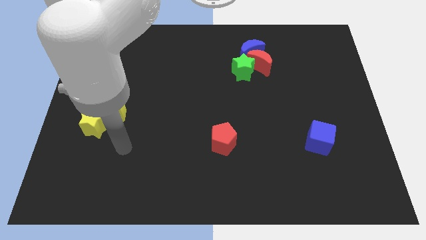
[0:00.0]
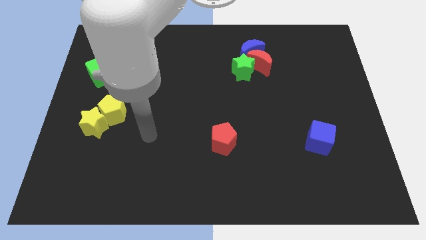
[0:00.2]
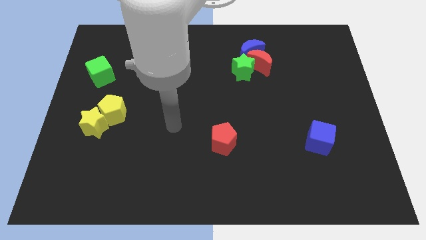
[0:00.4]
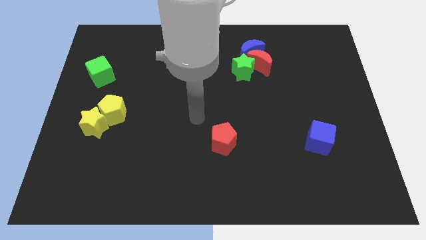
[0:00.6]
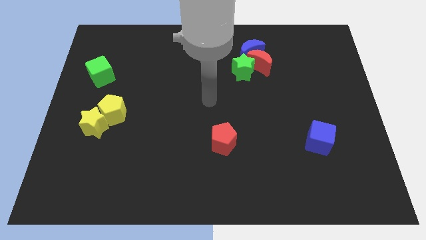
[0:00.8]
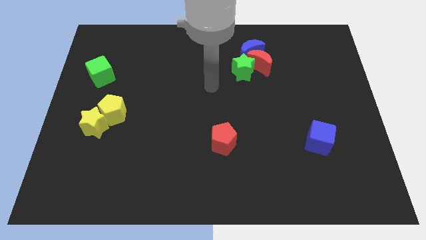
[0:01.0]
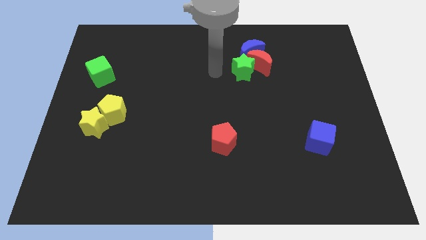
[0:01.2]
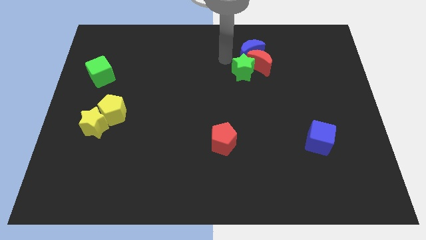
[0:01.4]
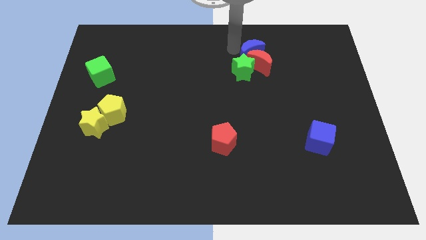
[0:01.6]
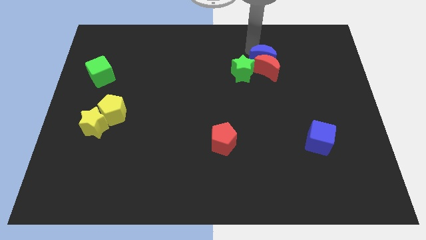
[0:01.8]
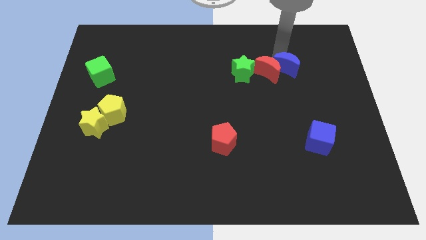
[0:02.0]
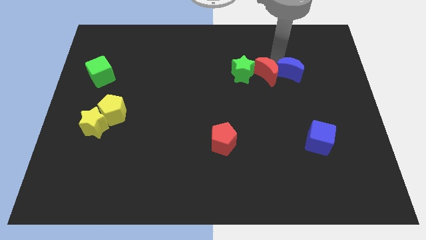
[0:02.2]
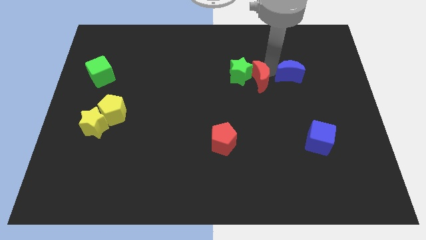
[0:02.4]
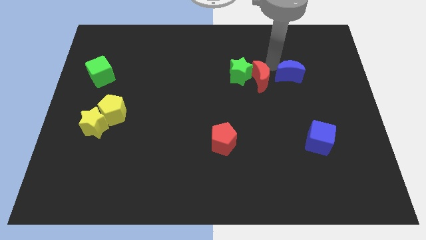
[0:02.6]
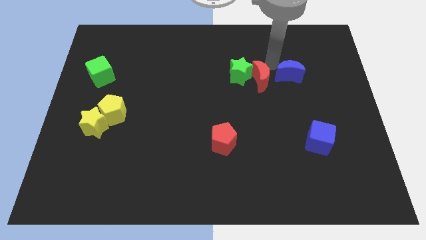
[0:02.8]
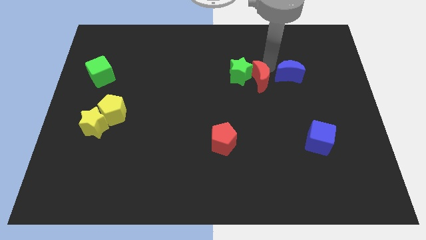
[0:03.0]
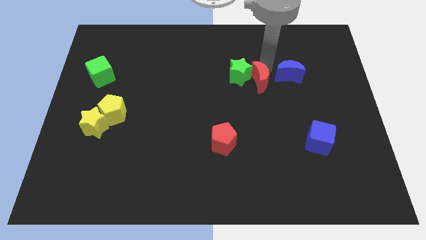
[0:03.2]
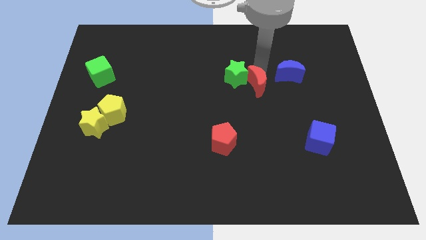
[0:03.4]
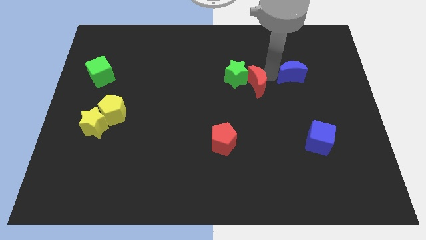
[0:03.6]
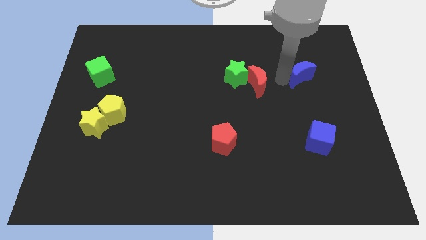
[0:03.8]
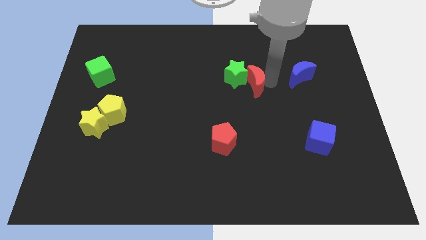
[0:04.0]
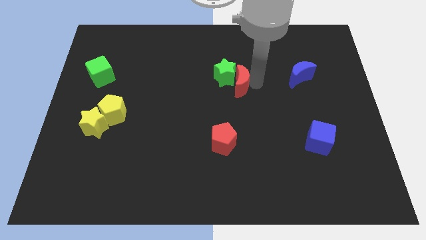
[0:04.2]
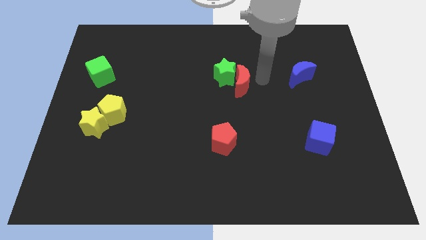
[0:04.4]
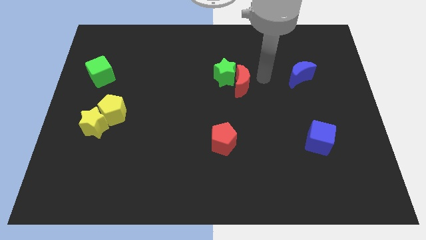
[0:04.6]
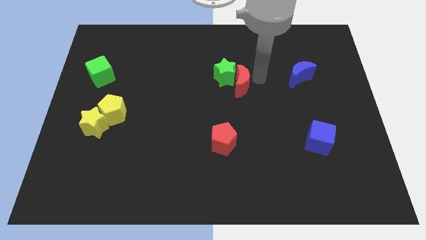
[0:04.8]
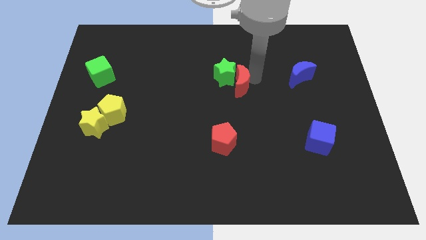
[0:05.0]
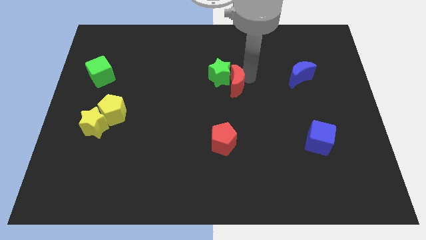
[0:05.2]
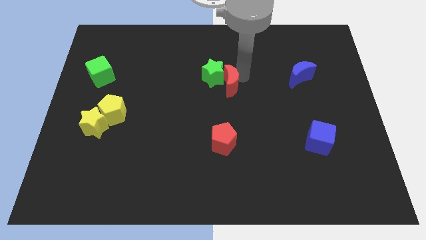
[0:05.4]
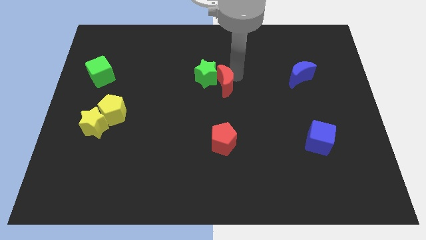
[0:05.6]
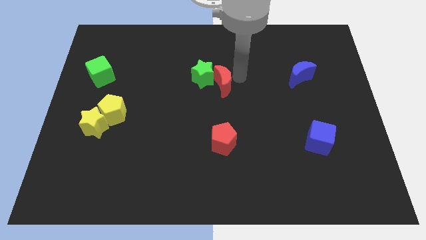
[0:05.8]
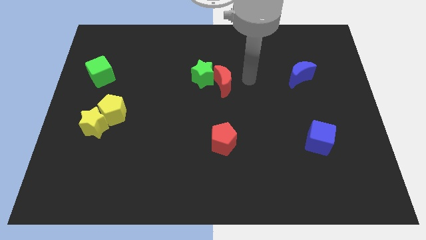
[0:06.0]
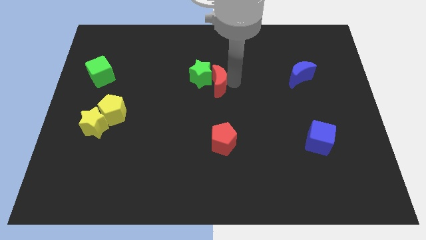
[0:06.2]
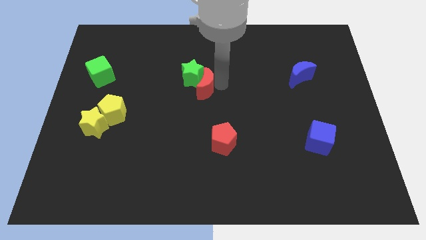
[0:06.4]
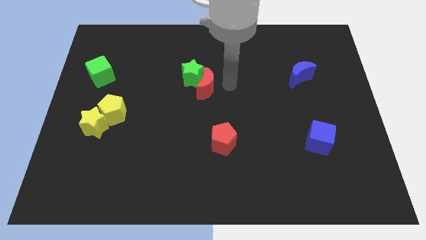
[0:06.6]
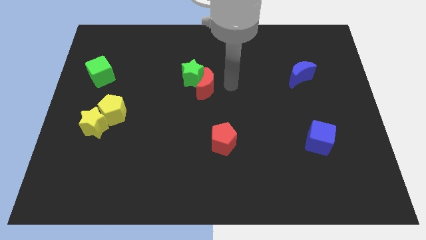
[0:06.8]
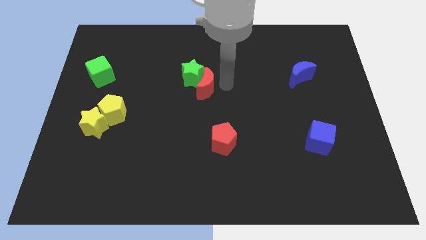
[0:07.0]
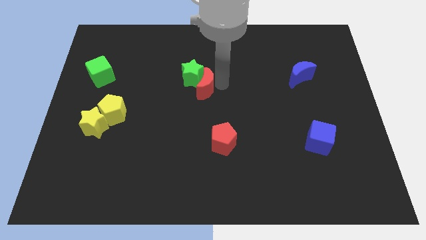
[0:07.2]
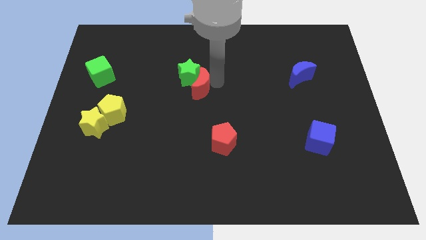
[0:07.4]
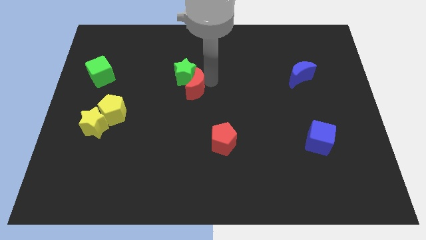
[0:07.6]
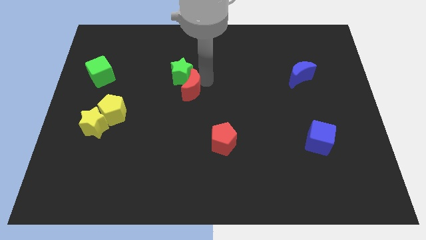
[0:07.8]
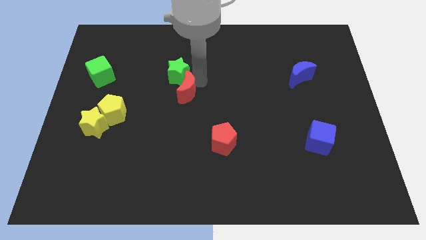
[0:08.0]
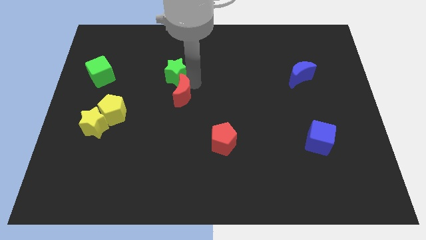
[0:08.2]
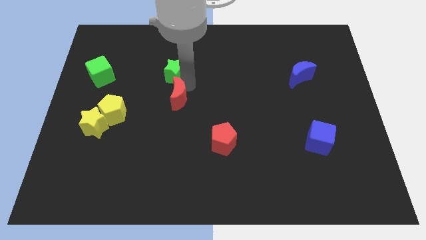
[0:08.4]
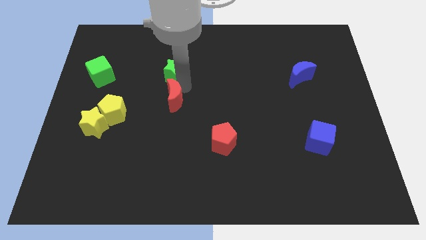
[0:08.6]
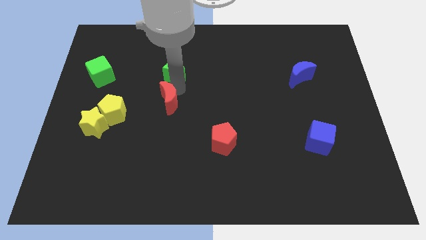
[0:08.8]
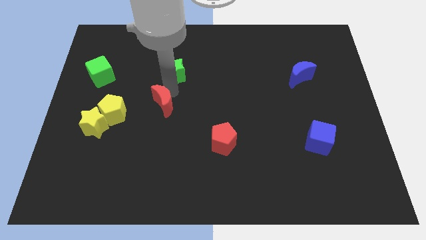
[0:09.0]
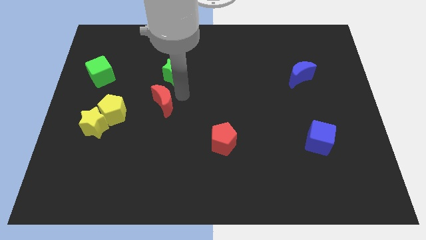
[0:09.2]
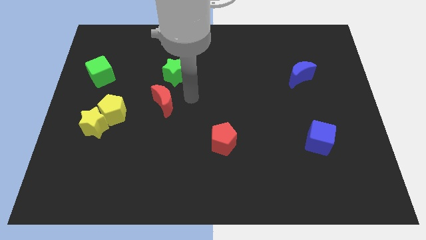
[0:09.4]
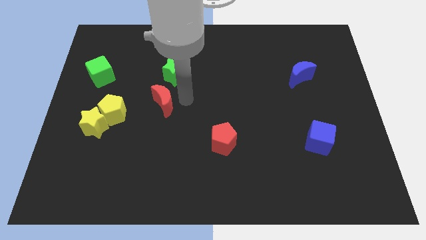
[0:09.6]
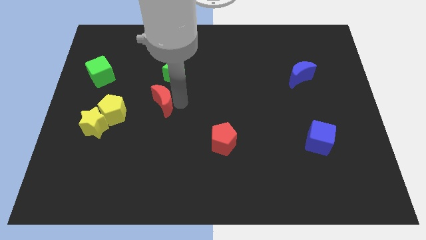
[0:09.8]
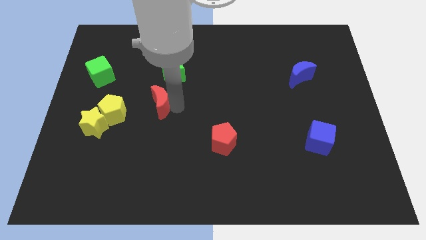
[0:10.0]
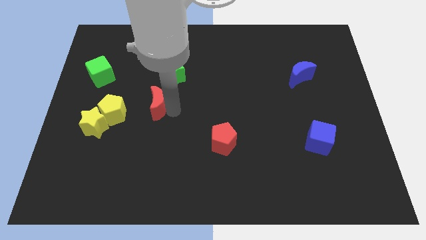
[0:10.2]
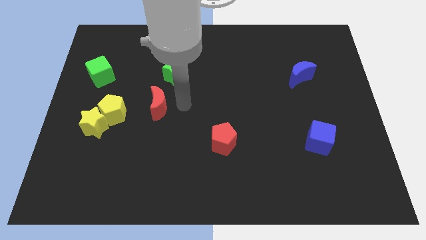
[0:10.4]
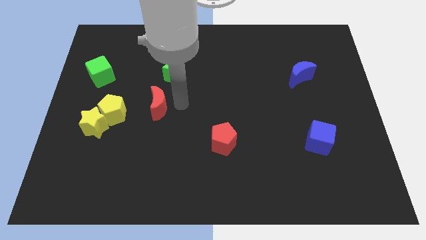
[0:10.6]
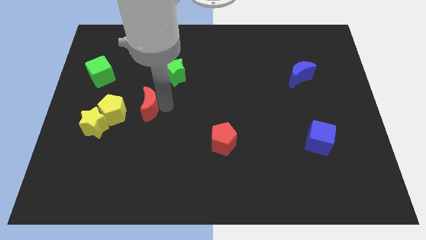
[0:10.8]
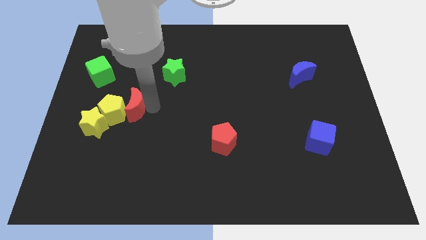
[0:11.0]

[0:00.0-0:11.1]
push the red moon next to the yellow pentagon

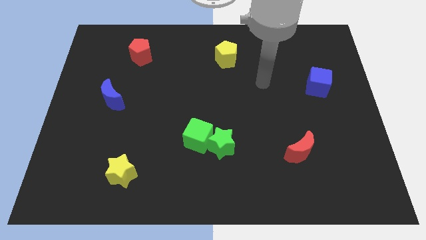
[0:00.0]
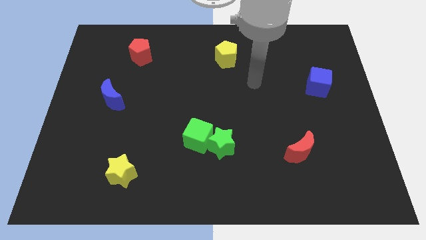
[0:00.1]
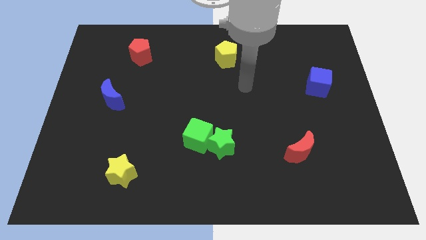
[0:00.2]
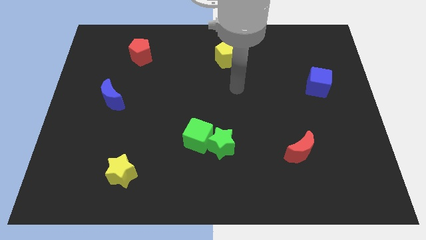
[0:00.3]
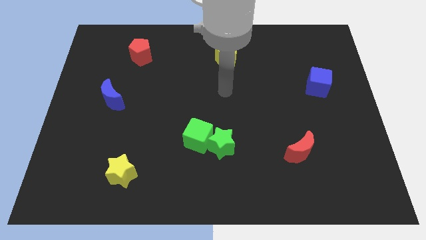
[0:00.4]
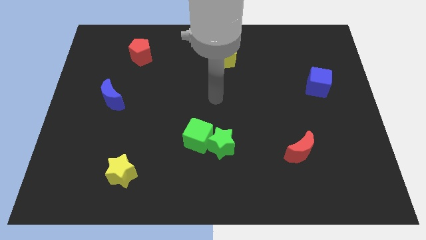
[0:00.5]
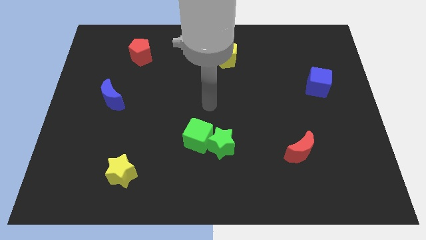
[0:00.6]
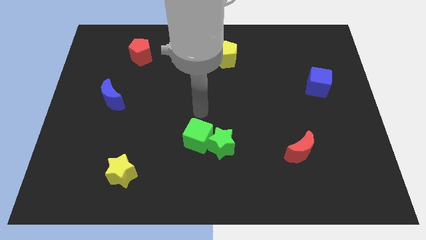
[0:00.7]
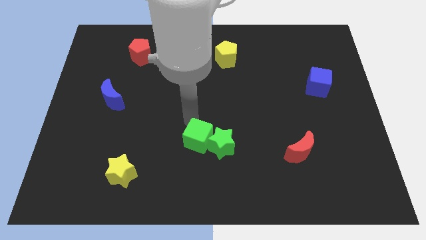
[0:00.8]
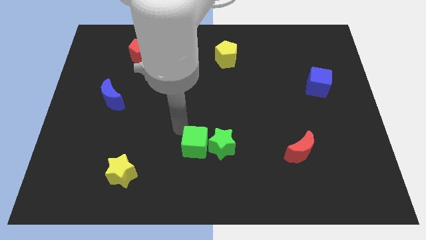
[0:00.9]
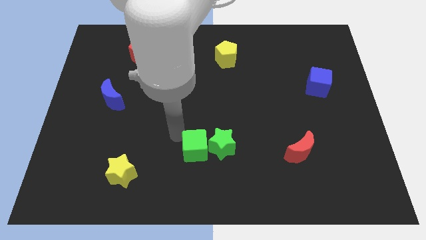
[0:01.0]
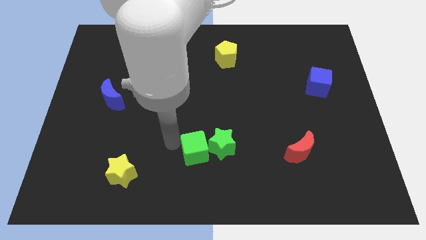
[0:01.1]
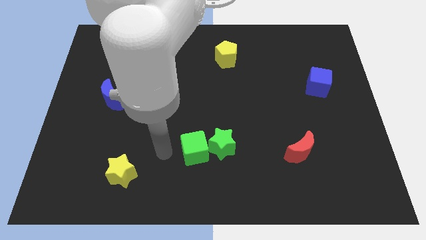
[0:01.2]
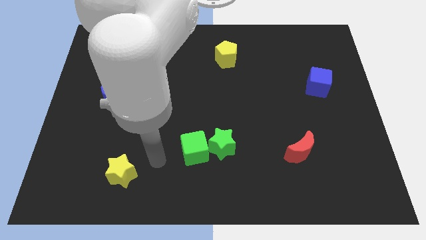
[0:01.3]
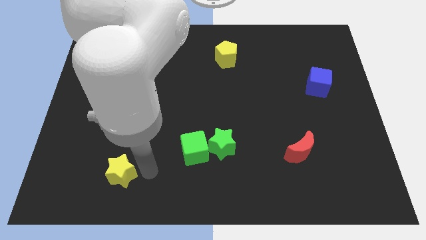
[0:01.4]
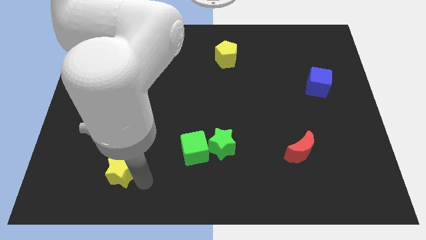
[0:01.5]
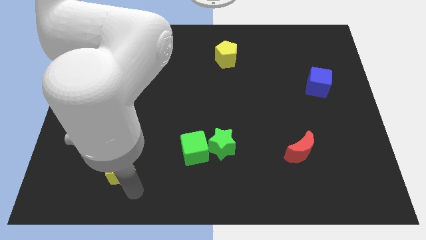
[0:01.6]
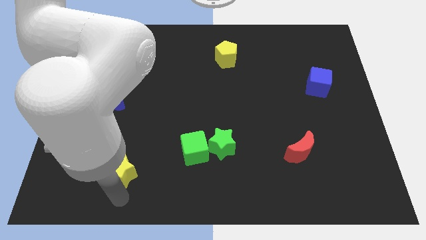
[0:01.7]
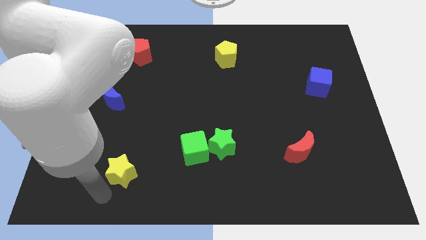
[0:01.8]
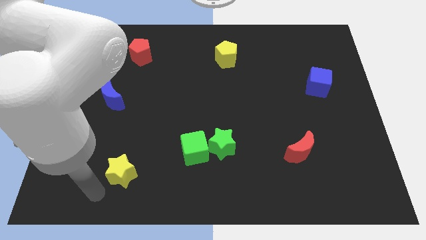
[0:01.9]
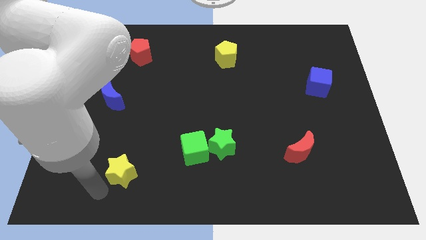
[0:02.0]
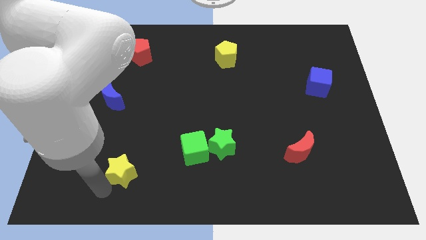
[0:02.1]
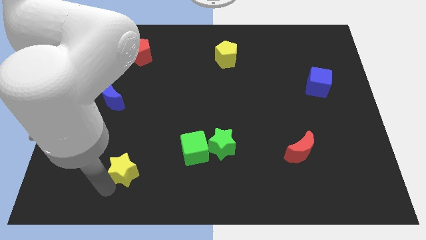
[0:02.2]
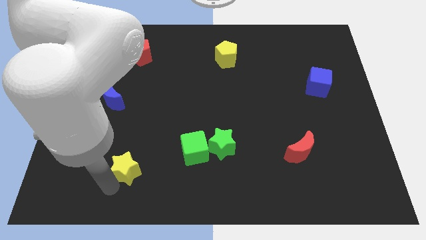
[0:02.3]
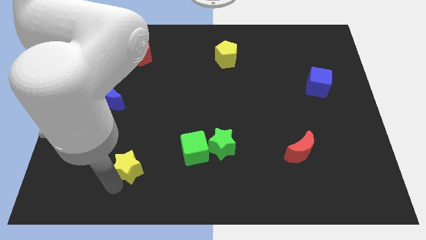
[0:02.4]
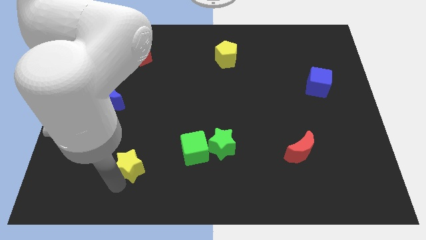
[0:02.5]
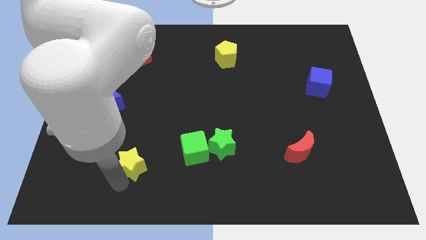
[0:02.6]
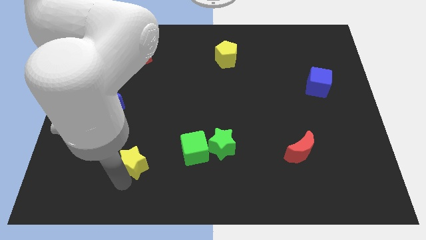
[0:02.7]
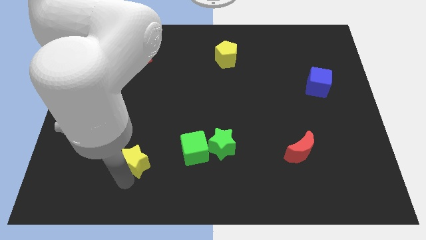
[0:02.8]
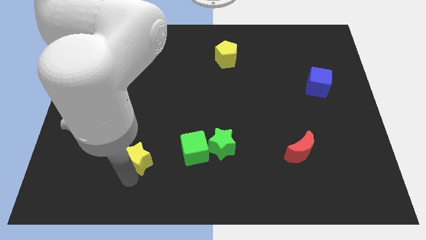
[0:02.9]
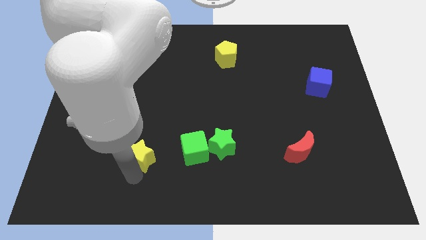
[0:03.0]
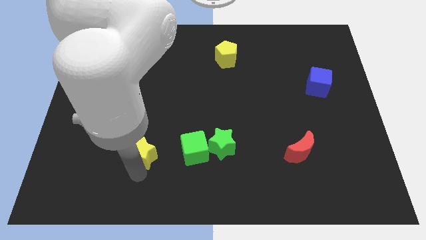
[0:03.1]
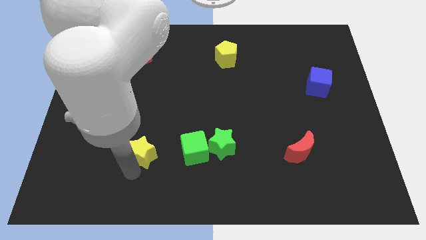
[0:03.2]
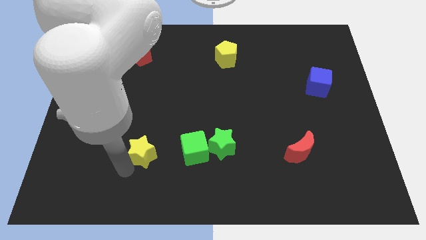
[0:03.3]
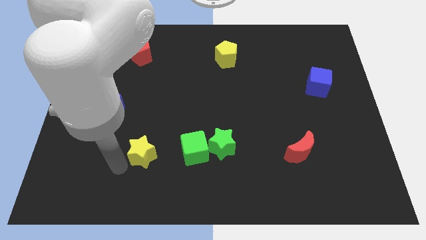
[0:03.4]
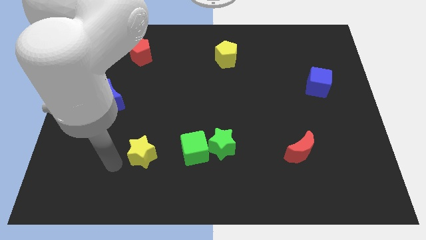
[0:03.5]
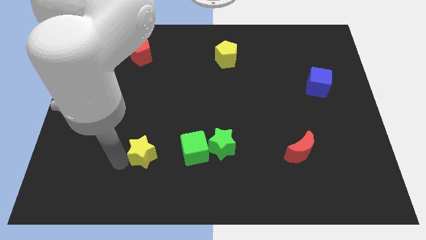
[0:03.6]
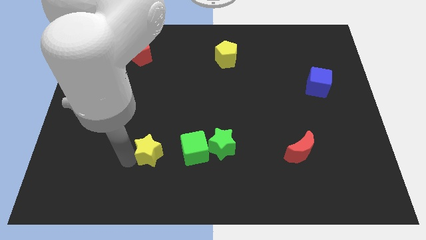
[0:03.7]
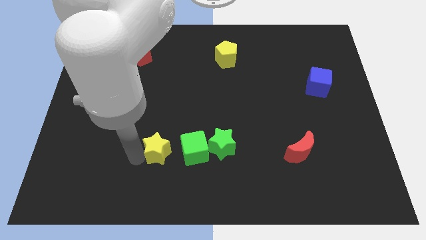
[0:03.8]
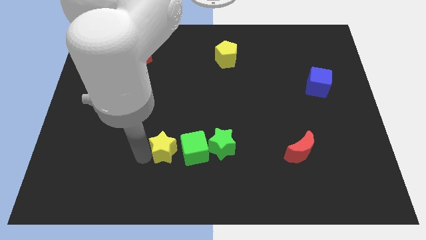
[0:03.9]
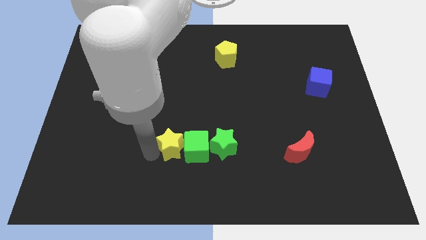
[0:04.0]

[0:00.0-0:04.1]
put the yellow star next to the green cube
